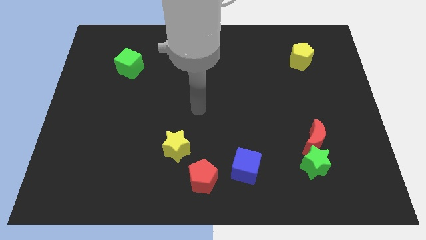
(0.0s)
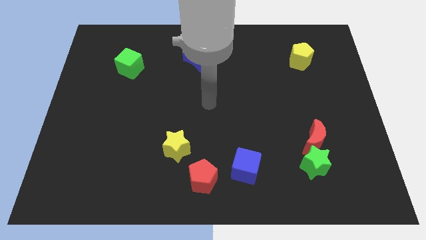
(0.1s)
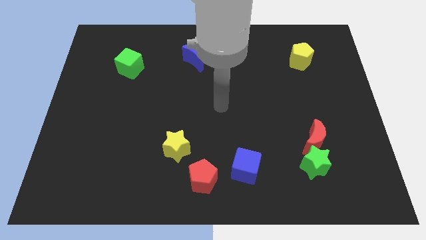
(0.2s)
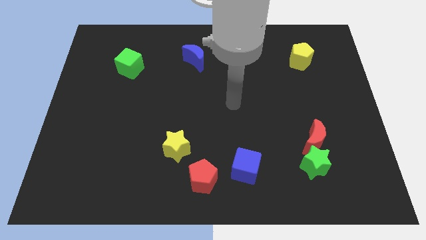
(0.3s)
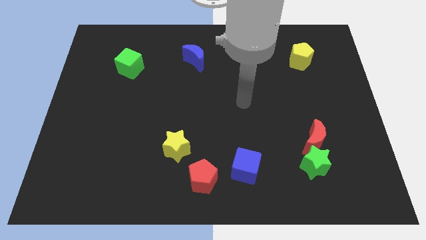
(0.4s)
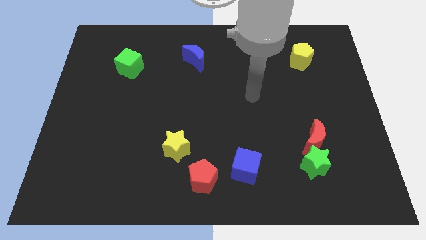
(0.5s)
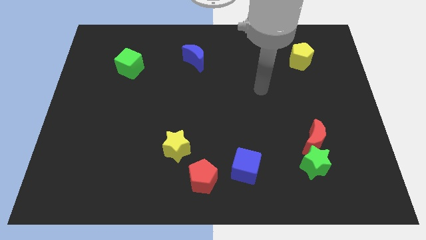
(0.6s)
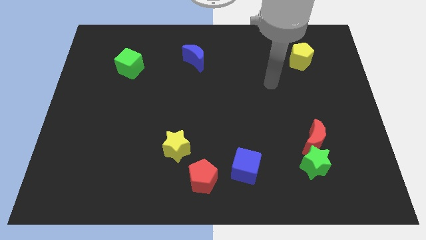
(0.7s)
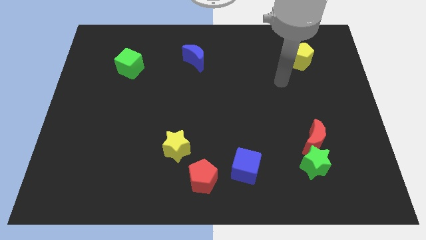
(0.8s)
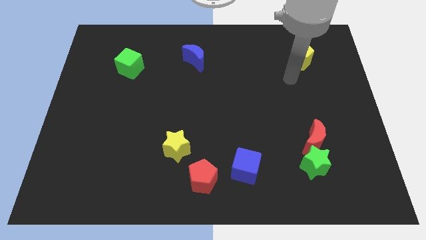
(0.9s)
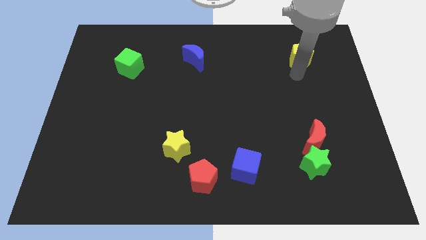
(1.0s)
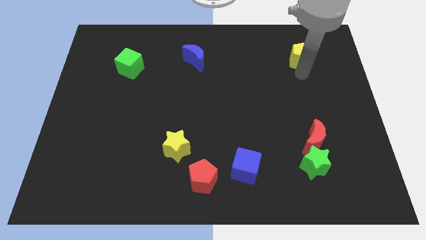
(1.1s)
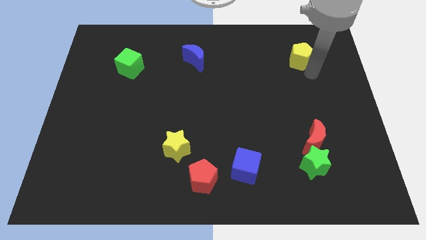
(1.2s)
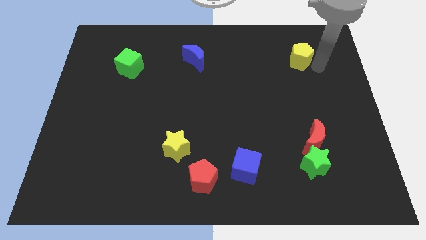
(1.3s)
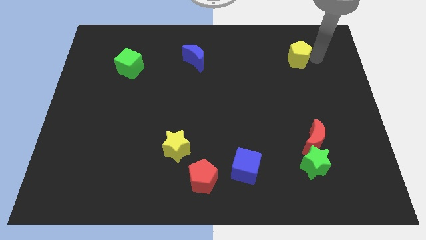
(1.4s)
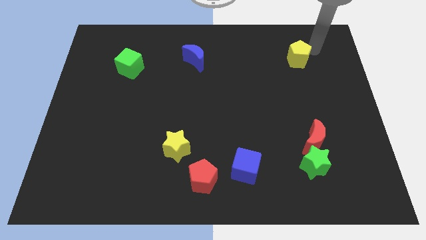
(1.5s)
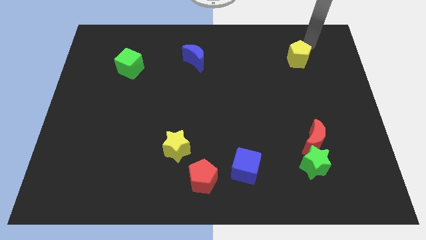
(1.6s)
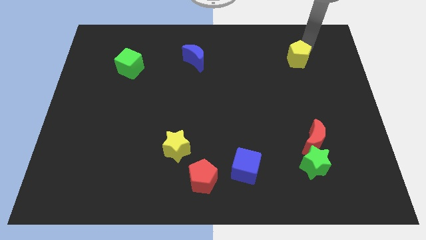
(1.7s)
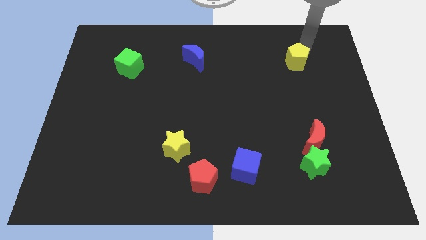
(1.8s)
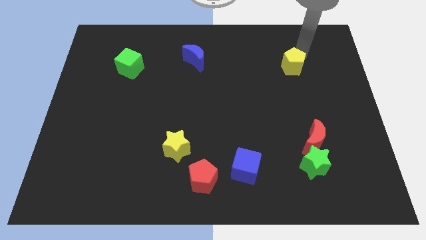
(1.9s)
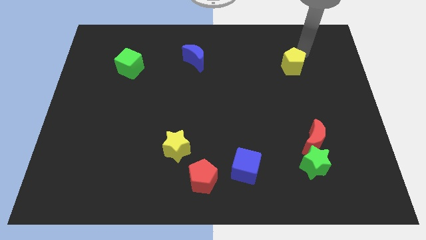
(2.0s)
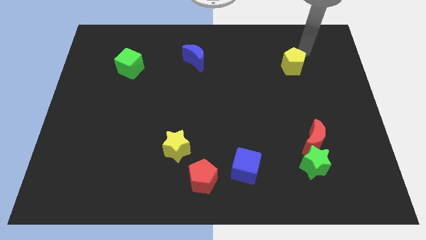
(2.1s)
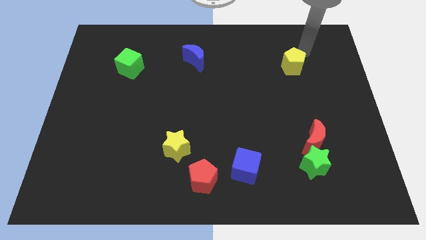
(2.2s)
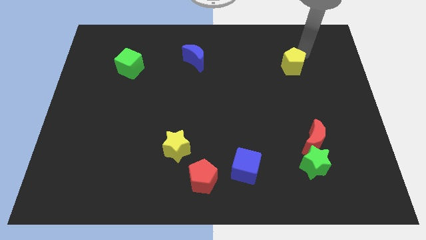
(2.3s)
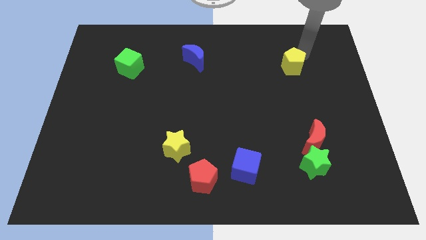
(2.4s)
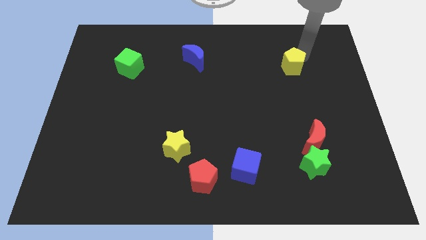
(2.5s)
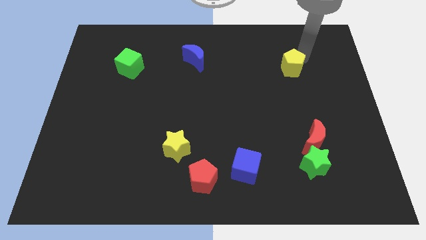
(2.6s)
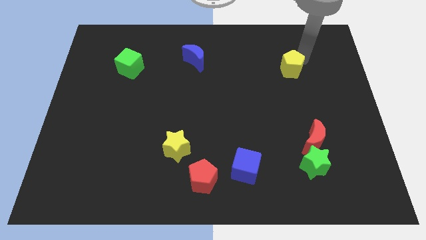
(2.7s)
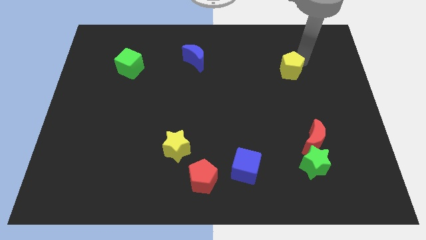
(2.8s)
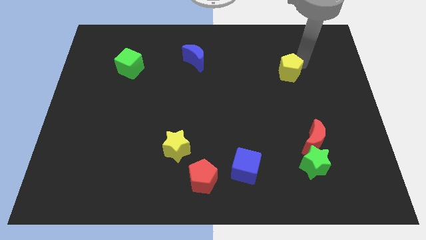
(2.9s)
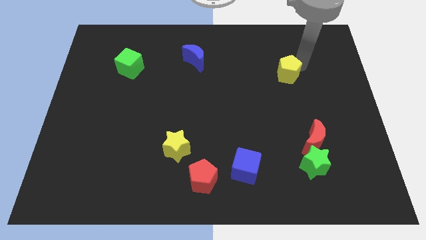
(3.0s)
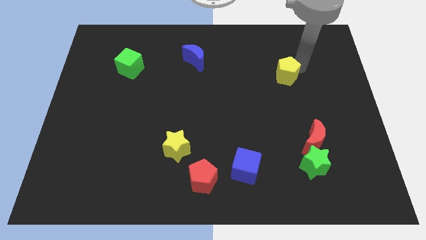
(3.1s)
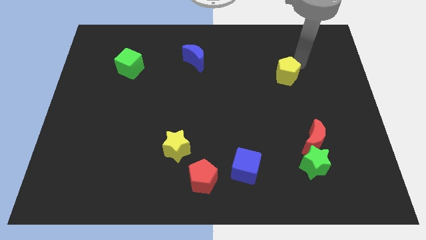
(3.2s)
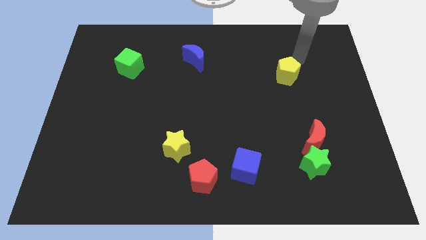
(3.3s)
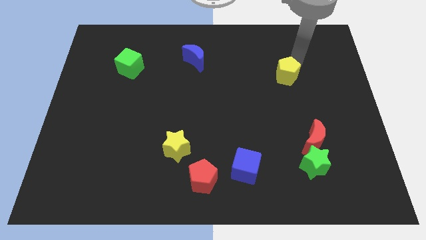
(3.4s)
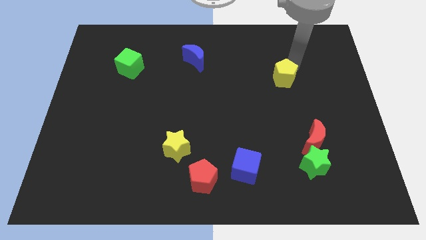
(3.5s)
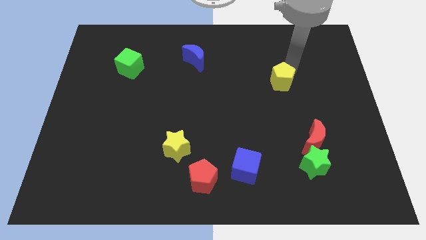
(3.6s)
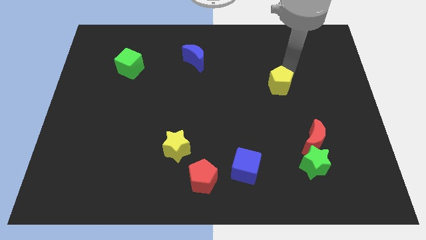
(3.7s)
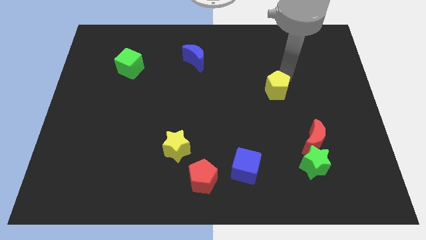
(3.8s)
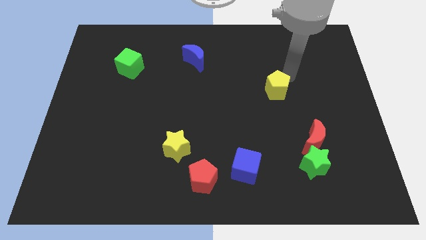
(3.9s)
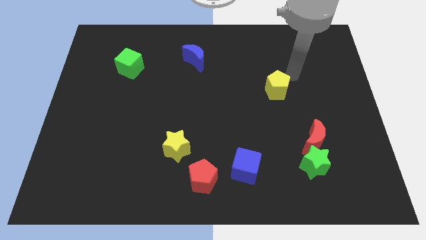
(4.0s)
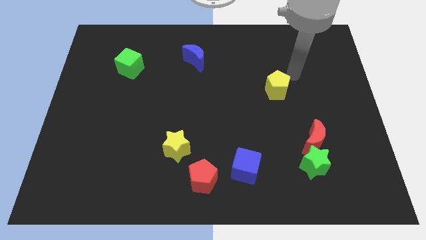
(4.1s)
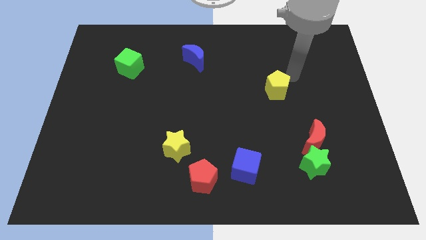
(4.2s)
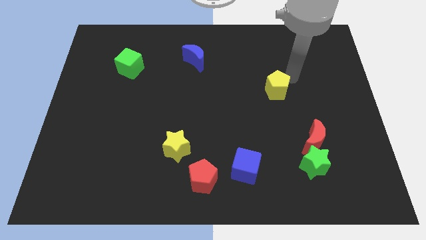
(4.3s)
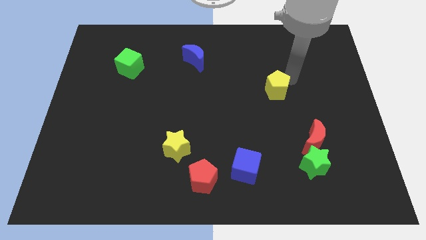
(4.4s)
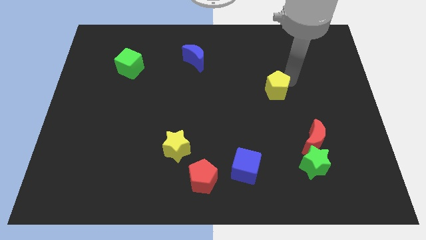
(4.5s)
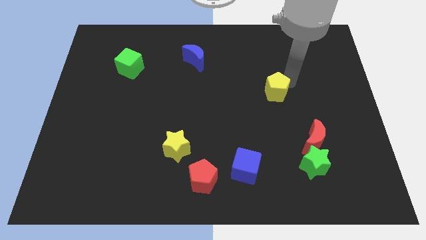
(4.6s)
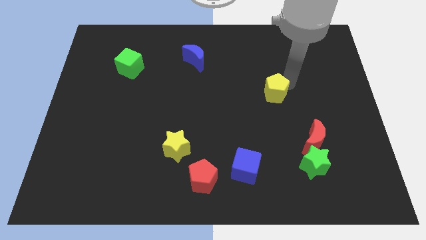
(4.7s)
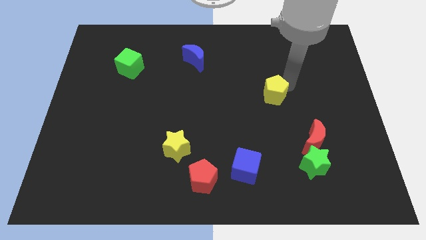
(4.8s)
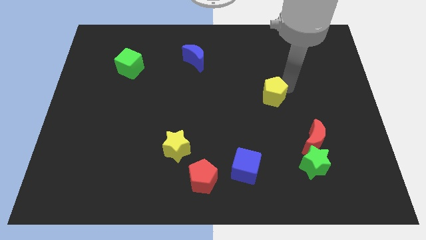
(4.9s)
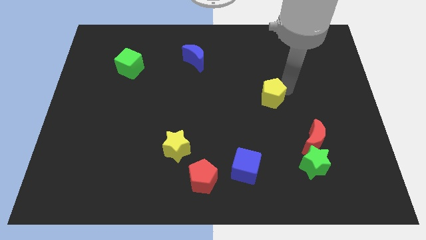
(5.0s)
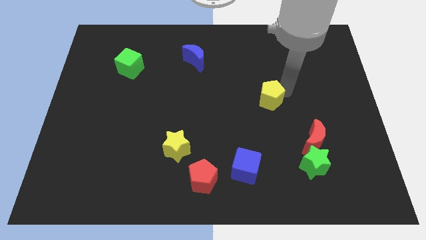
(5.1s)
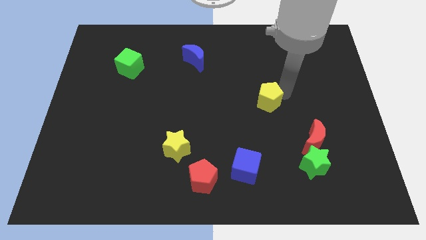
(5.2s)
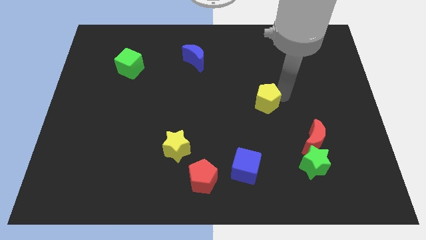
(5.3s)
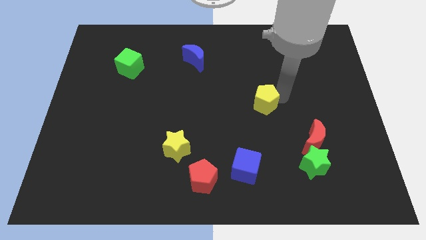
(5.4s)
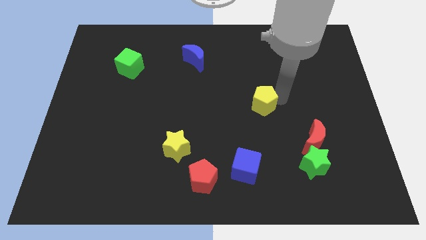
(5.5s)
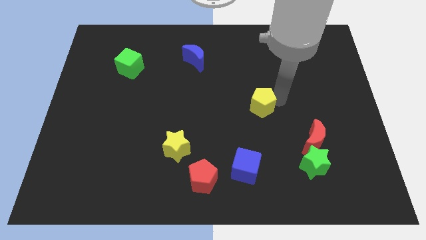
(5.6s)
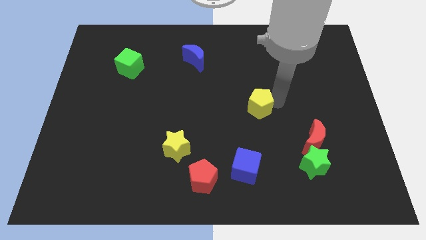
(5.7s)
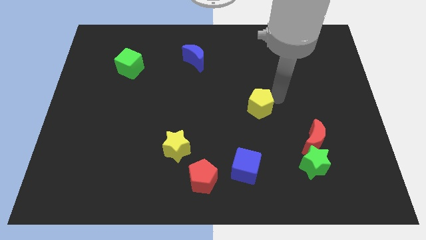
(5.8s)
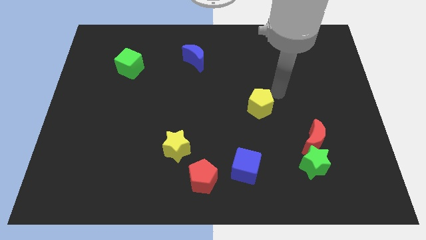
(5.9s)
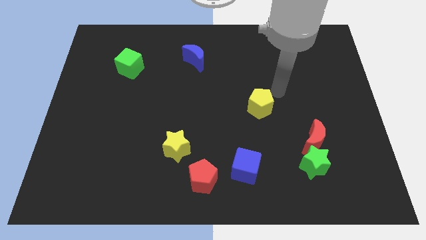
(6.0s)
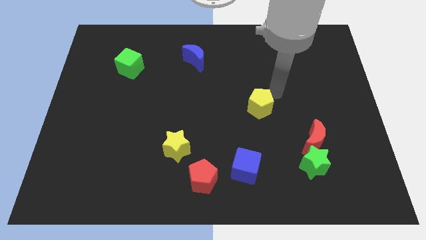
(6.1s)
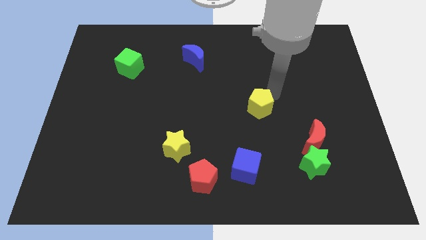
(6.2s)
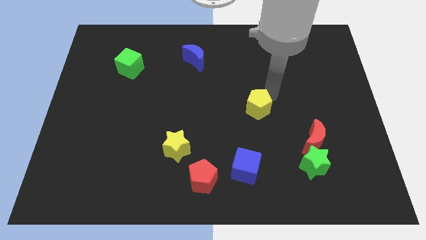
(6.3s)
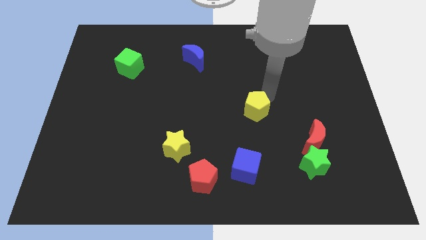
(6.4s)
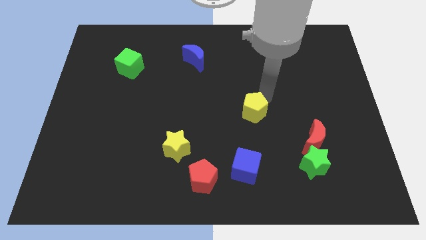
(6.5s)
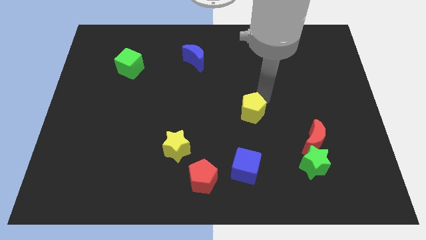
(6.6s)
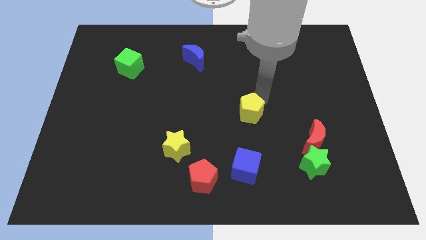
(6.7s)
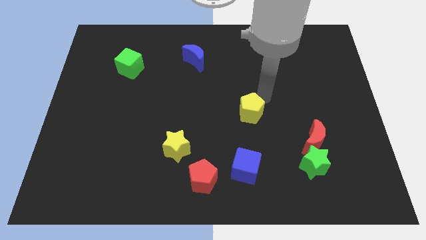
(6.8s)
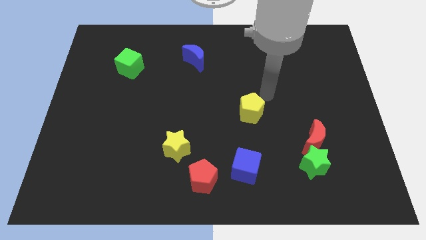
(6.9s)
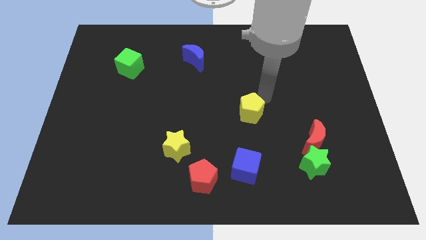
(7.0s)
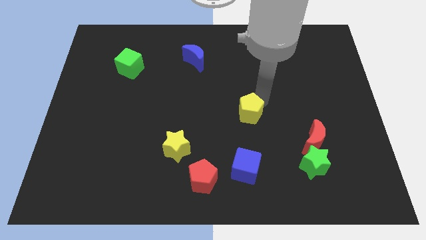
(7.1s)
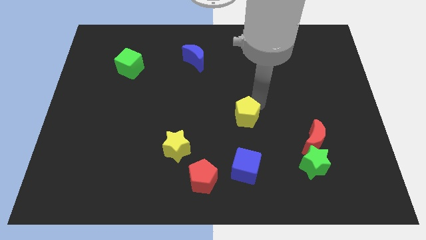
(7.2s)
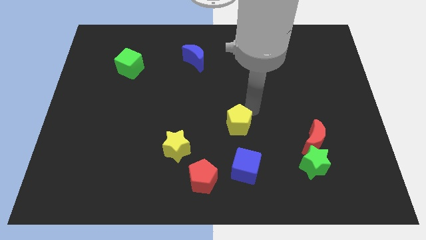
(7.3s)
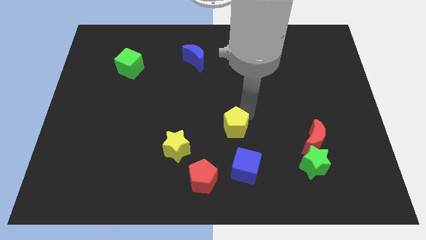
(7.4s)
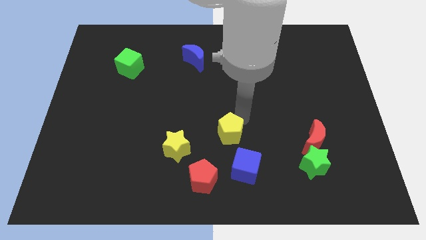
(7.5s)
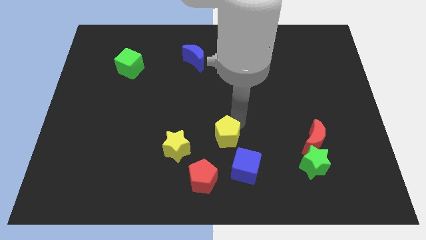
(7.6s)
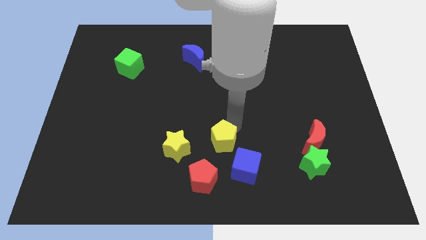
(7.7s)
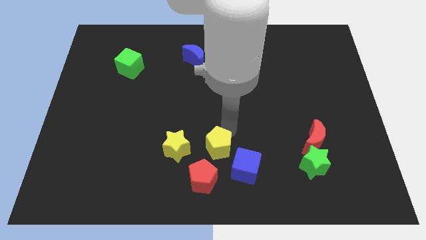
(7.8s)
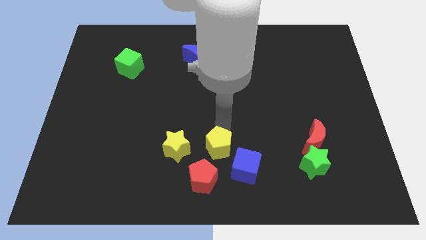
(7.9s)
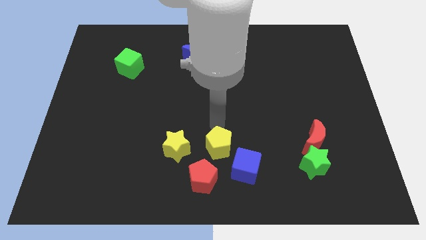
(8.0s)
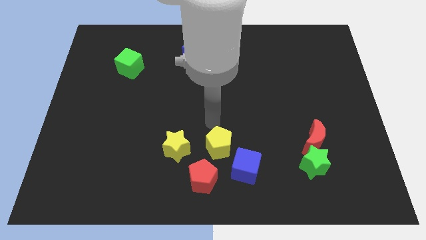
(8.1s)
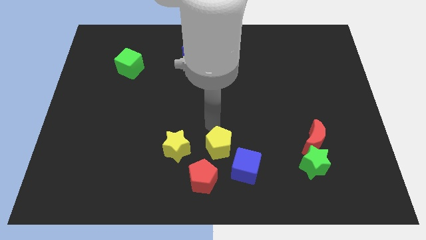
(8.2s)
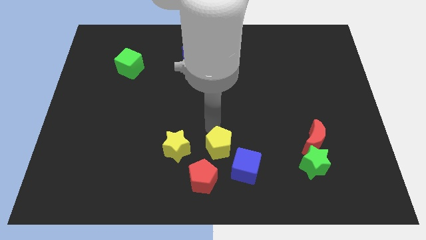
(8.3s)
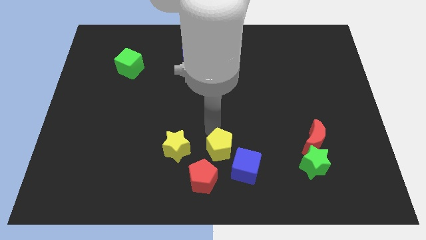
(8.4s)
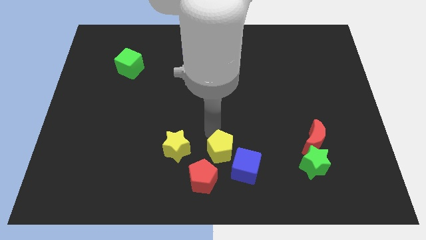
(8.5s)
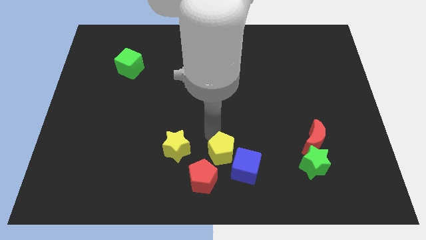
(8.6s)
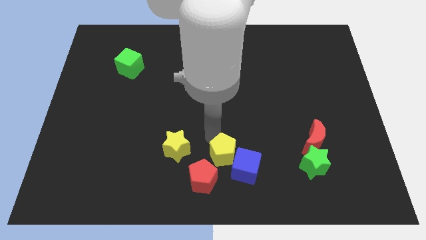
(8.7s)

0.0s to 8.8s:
put the yellow pentagon to the bottom
